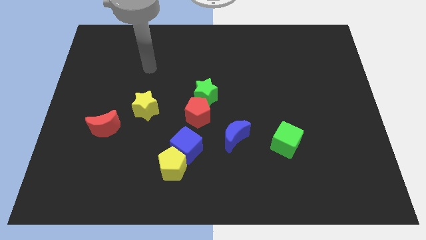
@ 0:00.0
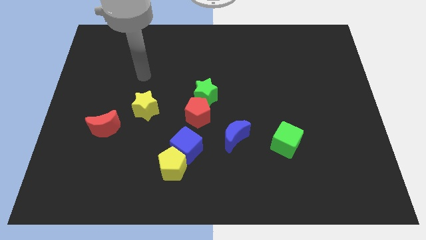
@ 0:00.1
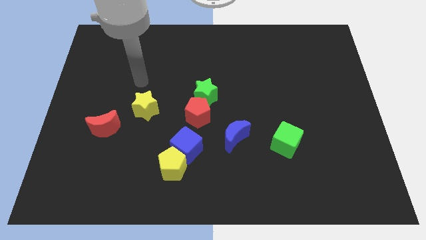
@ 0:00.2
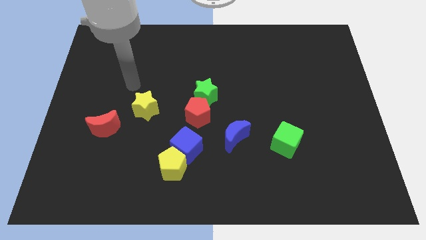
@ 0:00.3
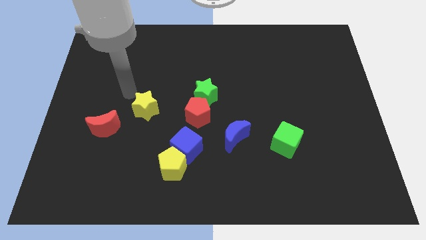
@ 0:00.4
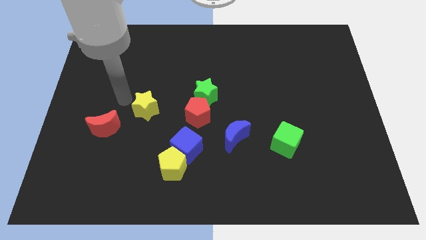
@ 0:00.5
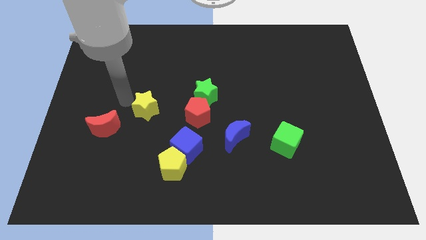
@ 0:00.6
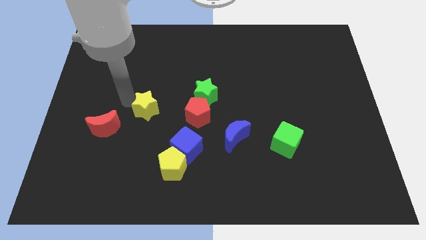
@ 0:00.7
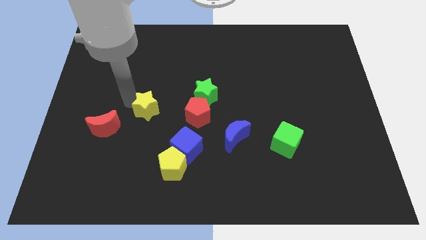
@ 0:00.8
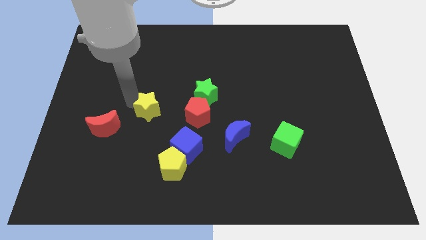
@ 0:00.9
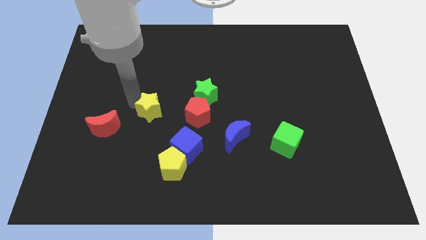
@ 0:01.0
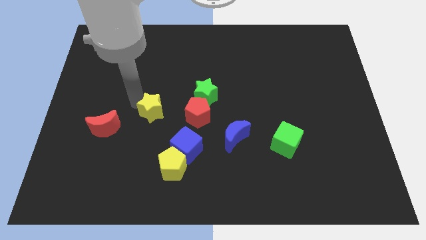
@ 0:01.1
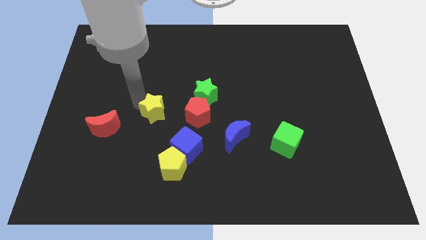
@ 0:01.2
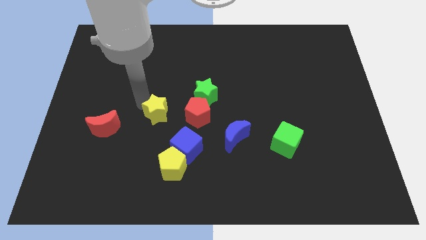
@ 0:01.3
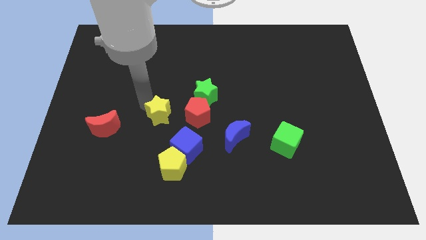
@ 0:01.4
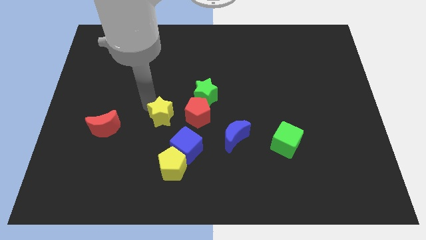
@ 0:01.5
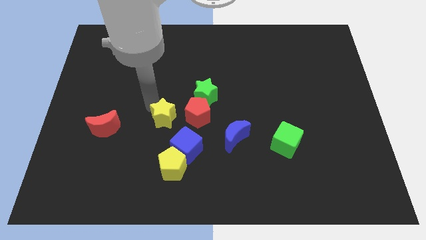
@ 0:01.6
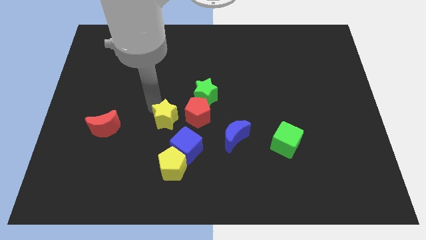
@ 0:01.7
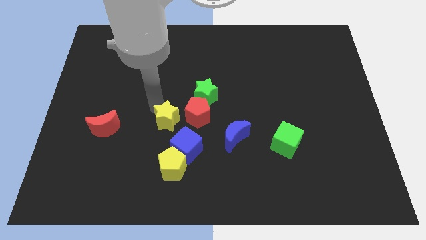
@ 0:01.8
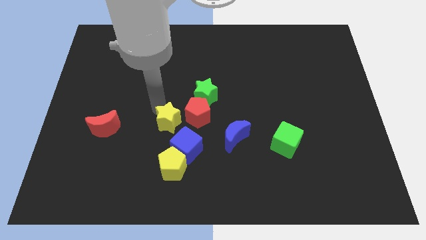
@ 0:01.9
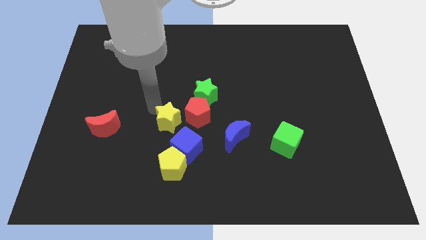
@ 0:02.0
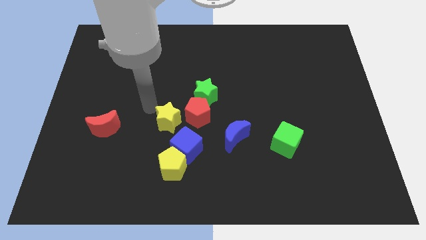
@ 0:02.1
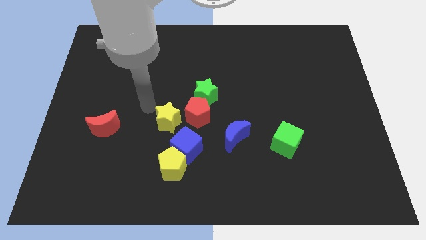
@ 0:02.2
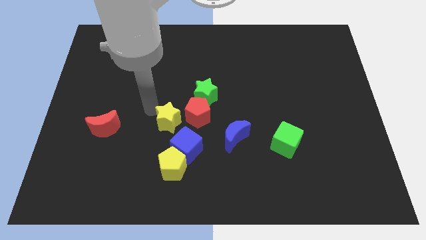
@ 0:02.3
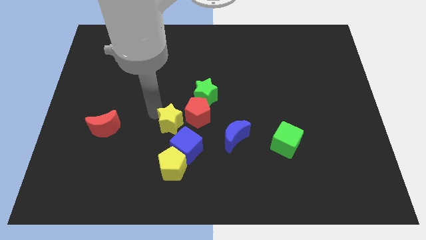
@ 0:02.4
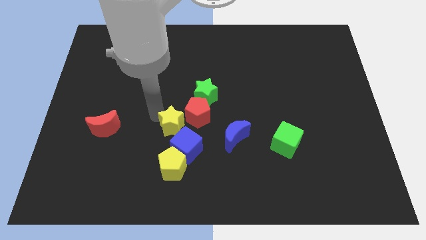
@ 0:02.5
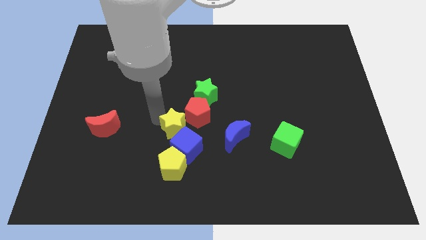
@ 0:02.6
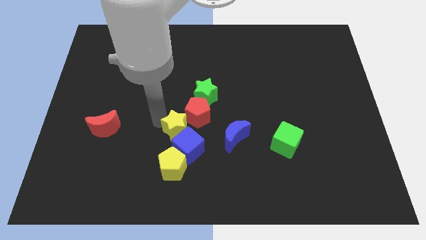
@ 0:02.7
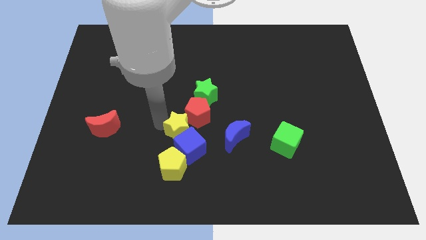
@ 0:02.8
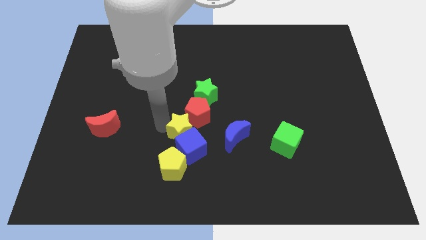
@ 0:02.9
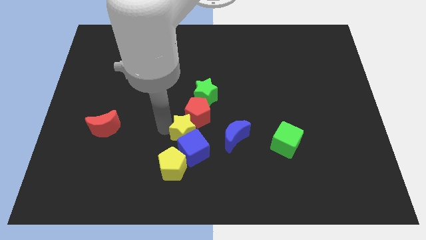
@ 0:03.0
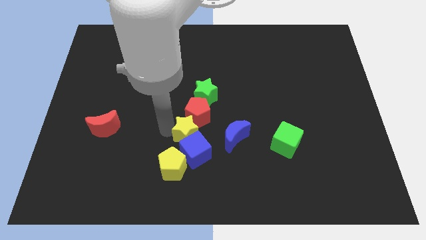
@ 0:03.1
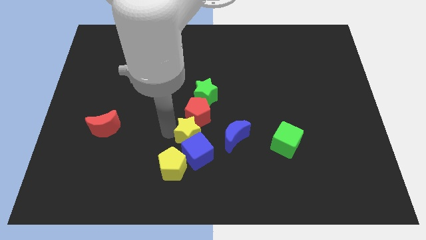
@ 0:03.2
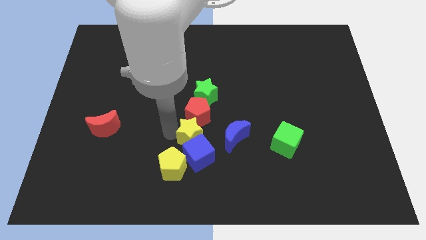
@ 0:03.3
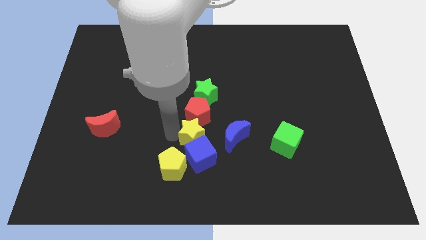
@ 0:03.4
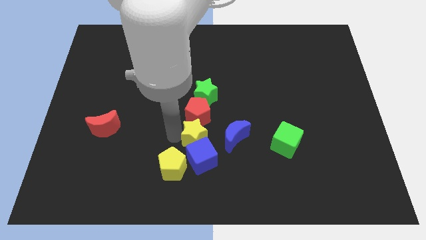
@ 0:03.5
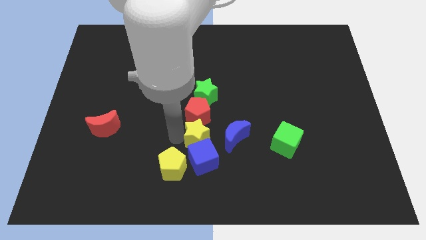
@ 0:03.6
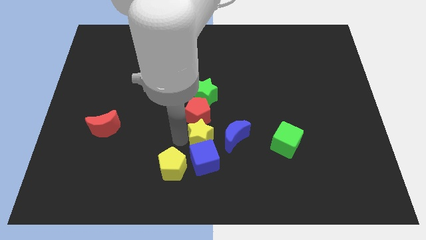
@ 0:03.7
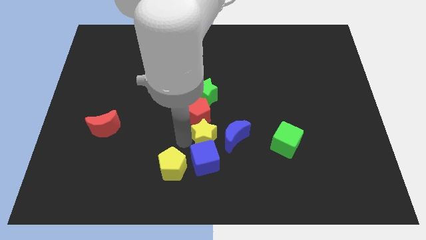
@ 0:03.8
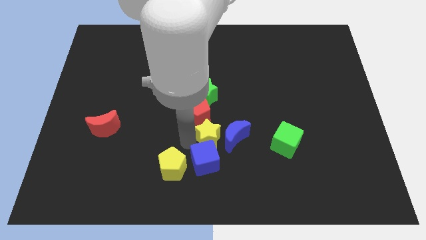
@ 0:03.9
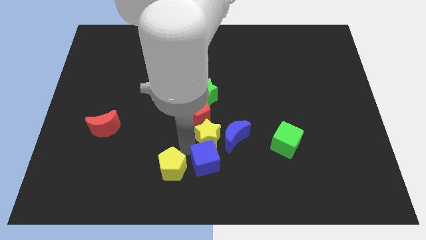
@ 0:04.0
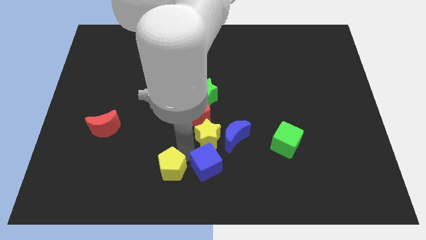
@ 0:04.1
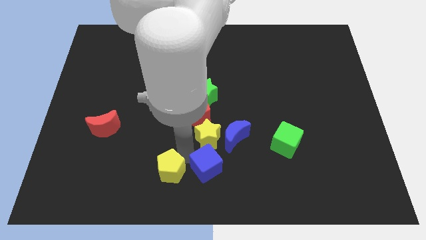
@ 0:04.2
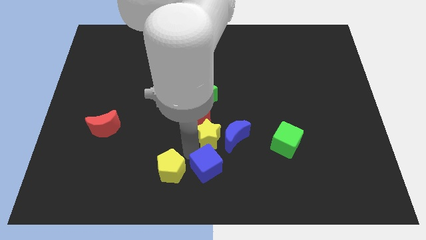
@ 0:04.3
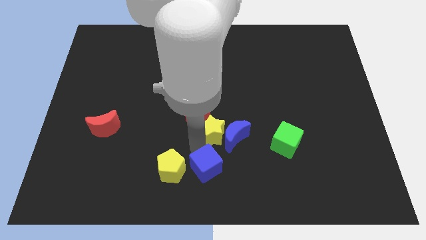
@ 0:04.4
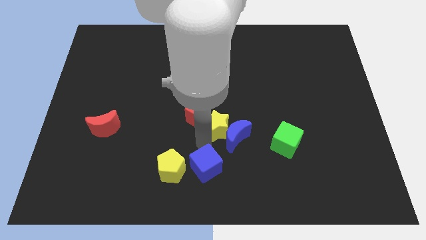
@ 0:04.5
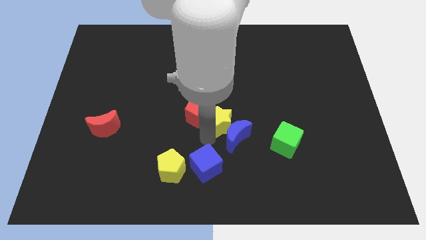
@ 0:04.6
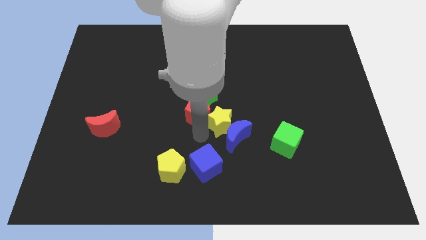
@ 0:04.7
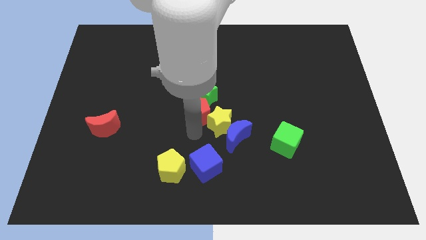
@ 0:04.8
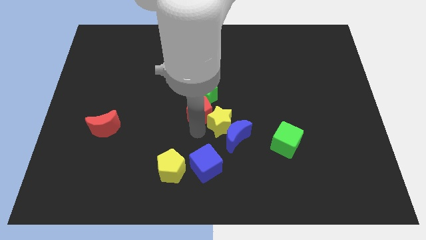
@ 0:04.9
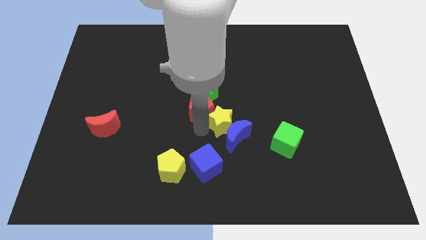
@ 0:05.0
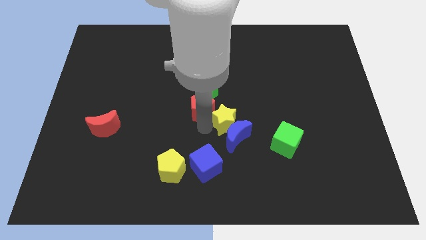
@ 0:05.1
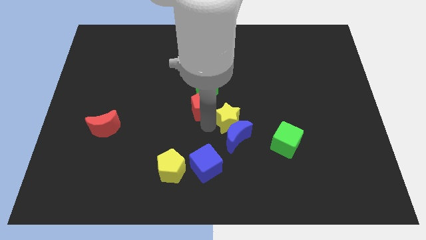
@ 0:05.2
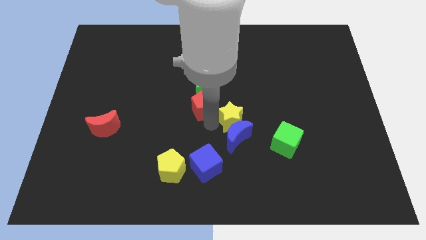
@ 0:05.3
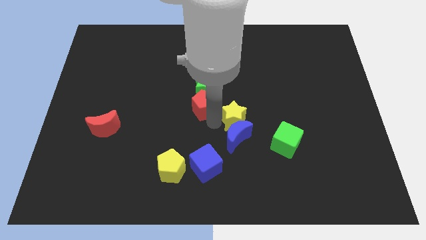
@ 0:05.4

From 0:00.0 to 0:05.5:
slide the yellow star right

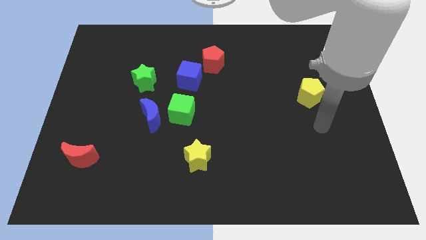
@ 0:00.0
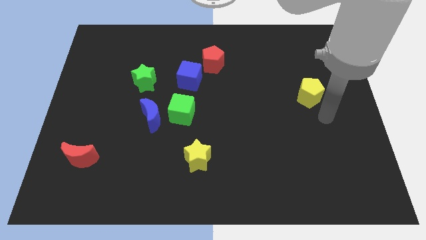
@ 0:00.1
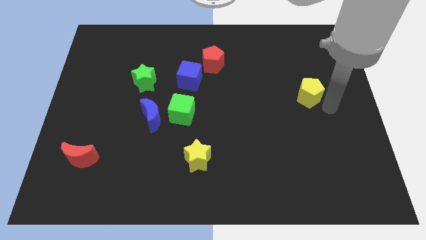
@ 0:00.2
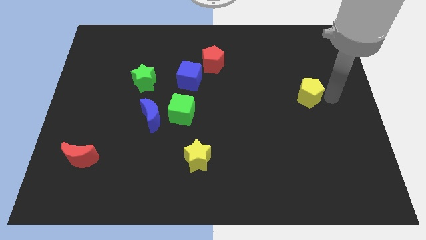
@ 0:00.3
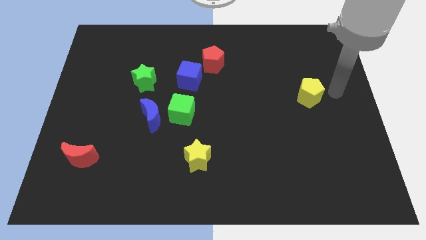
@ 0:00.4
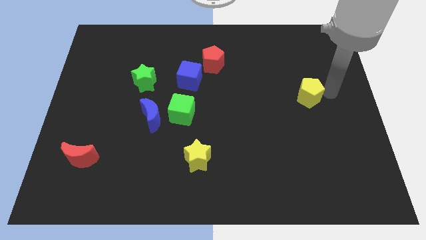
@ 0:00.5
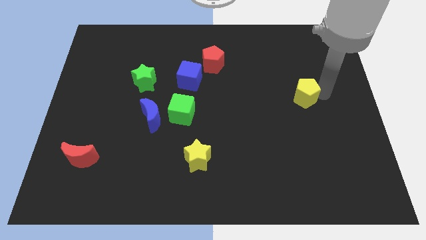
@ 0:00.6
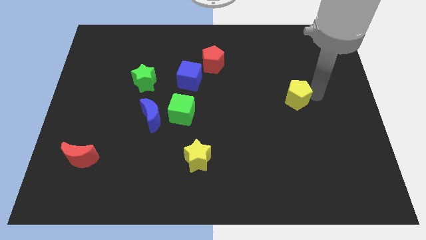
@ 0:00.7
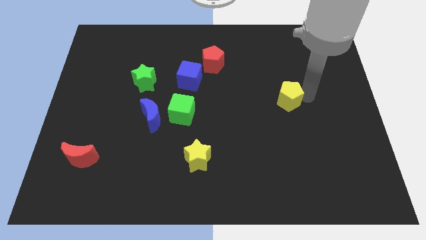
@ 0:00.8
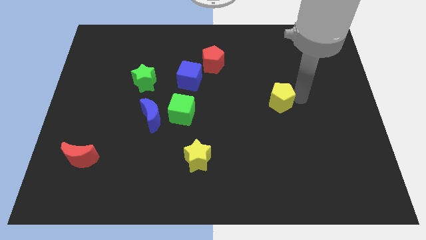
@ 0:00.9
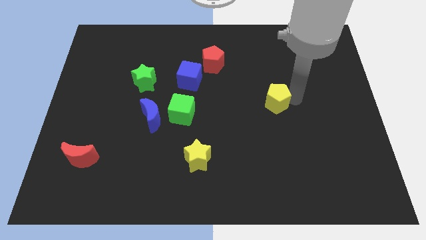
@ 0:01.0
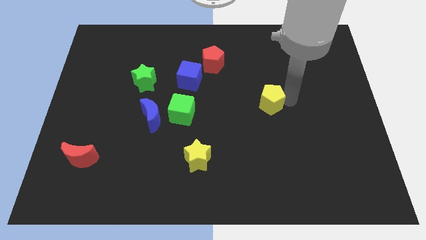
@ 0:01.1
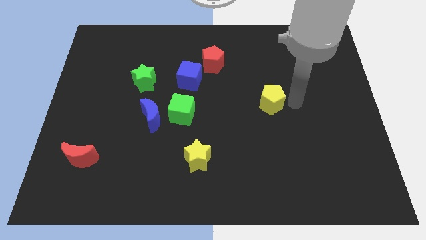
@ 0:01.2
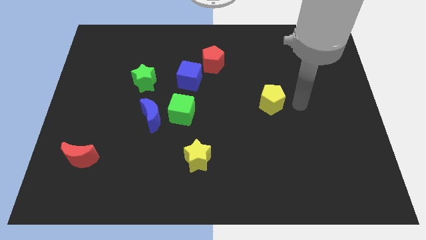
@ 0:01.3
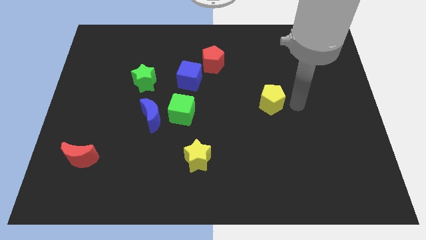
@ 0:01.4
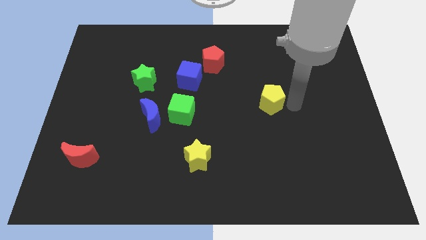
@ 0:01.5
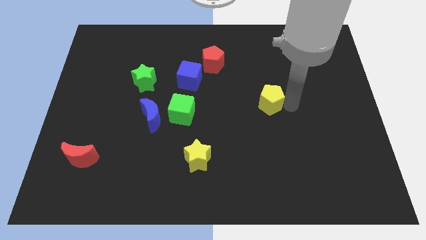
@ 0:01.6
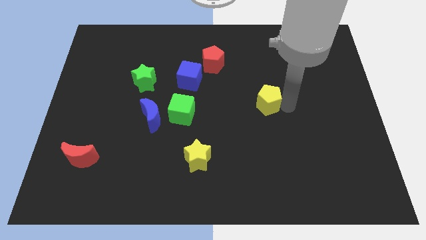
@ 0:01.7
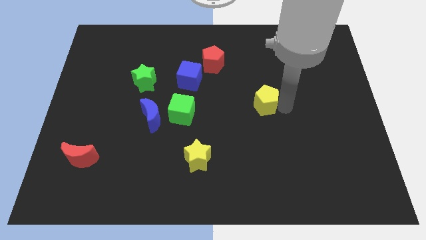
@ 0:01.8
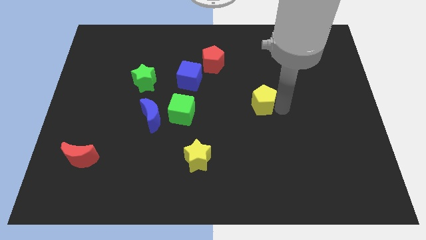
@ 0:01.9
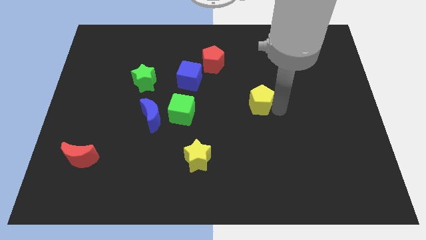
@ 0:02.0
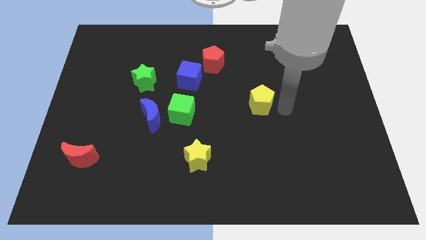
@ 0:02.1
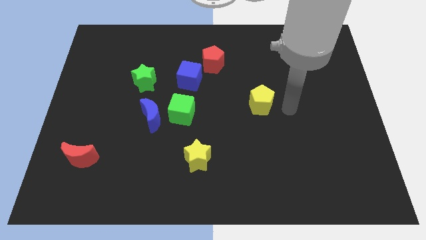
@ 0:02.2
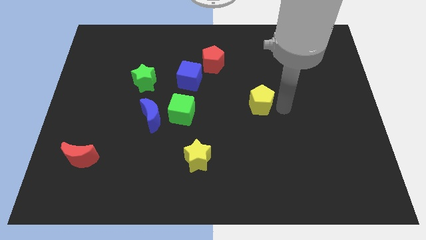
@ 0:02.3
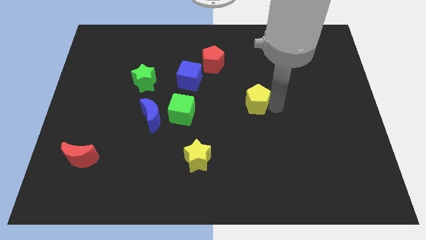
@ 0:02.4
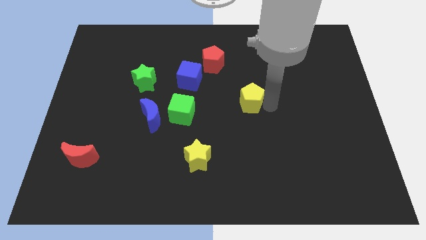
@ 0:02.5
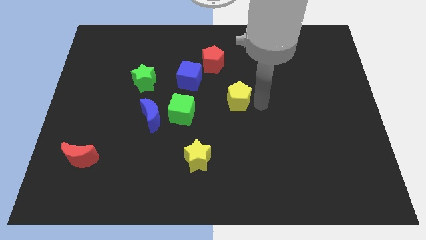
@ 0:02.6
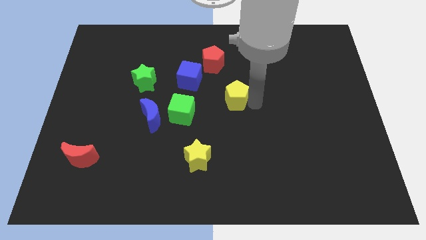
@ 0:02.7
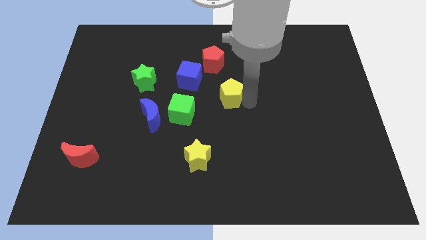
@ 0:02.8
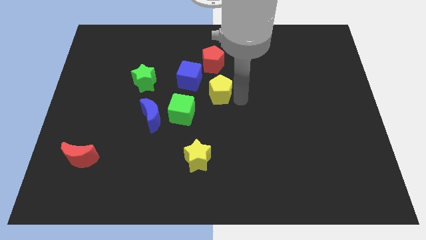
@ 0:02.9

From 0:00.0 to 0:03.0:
slide the yellow pentagon to the left
